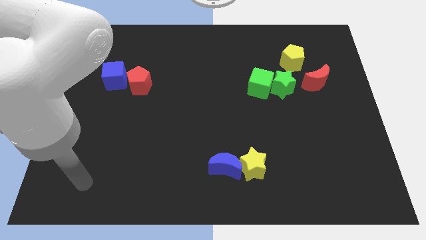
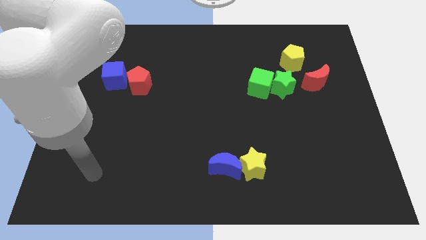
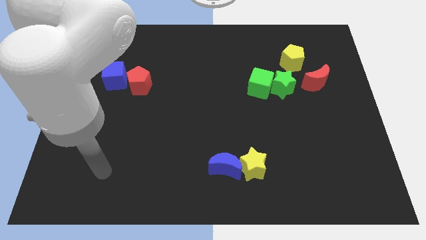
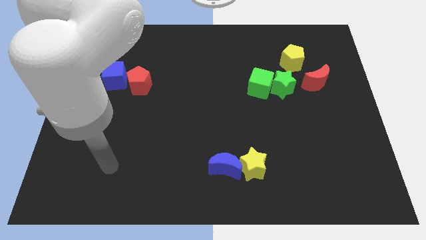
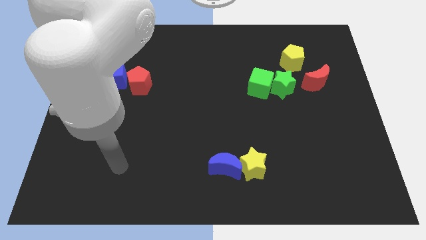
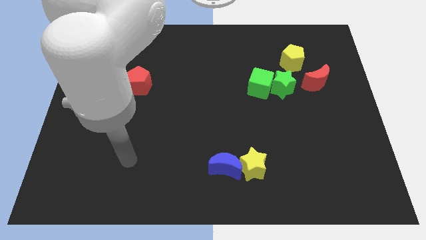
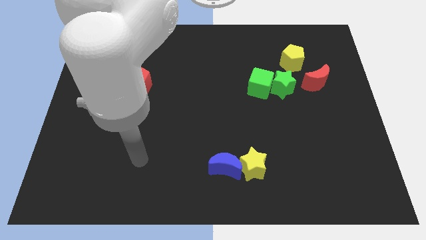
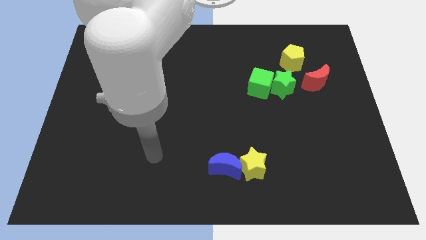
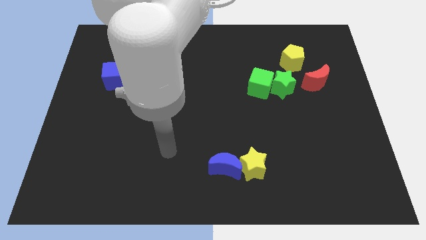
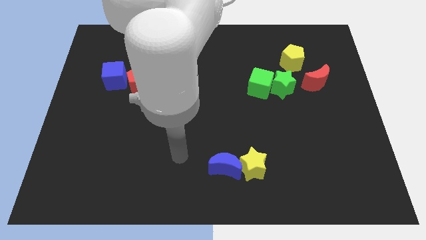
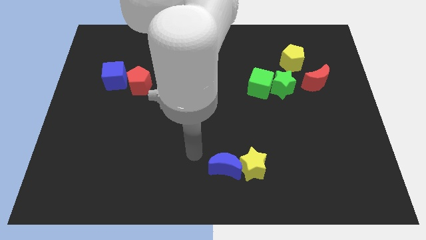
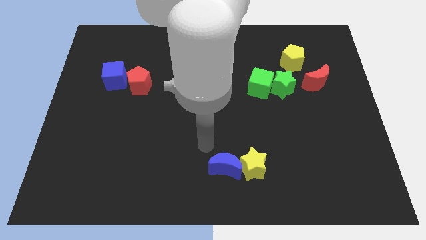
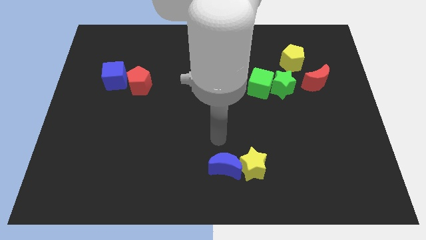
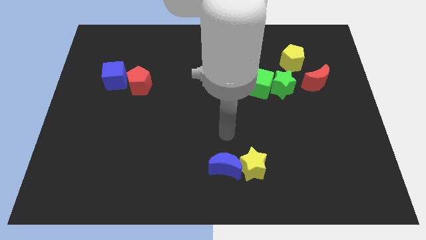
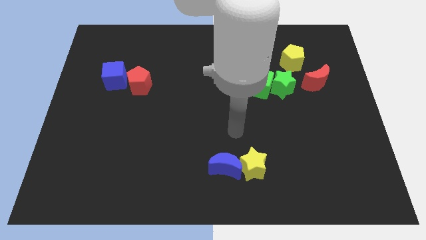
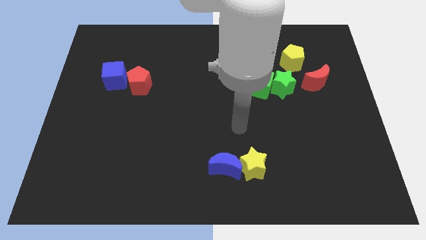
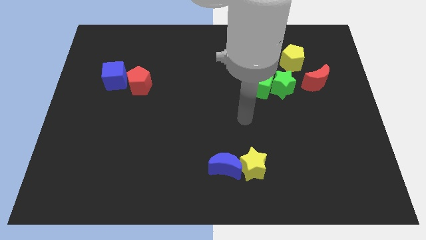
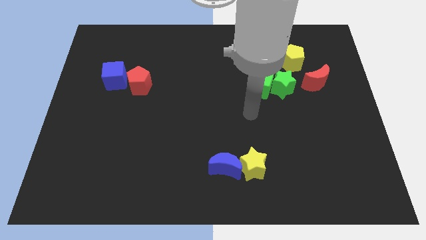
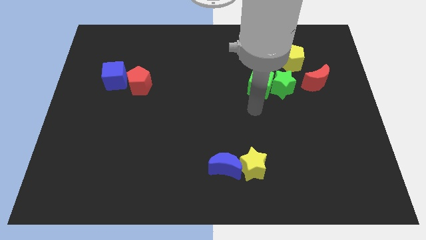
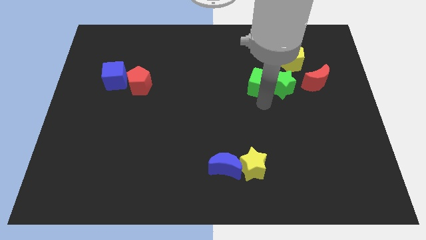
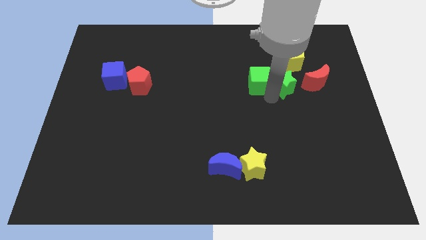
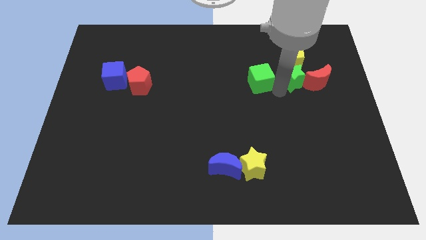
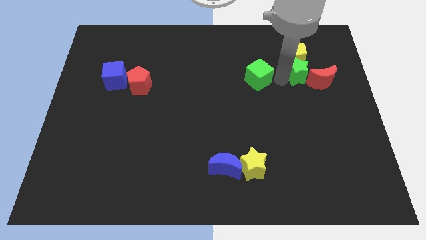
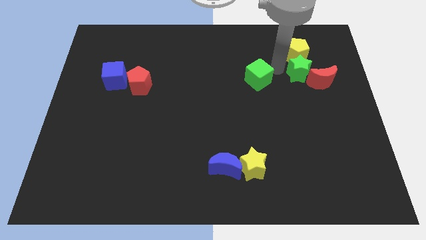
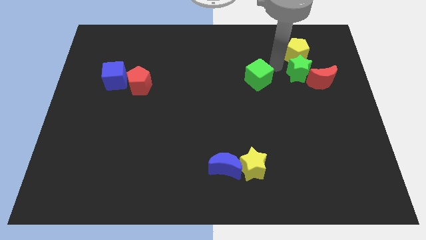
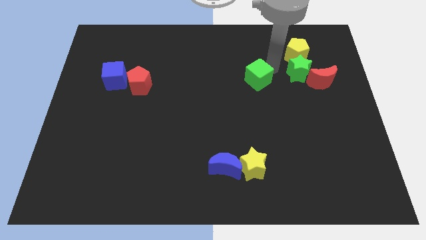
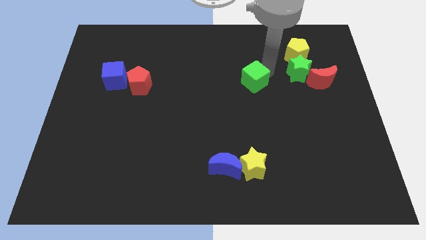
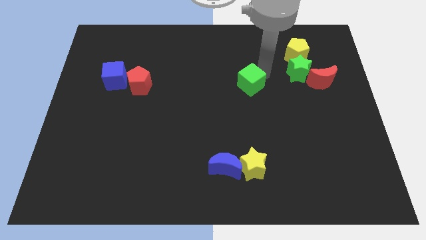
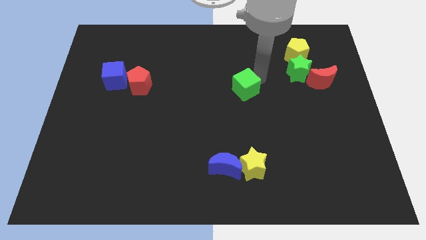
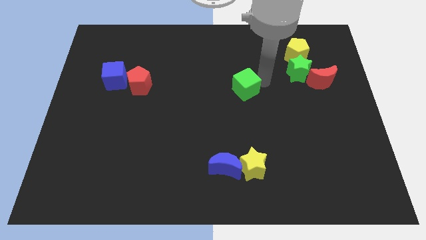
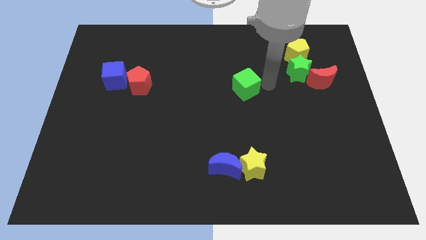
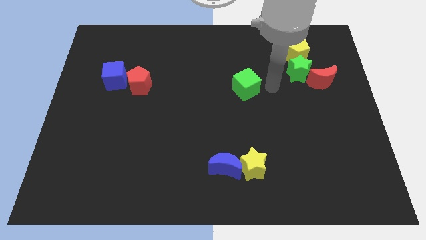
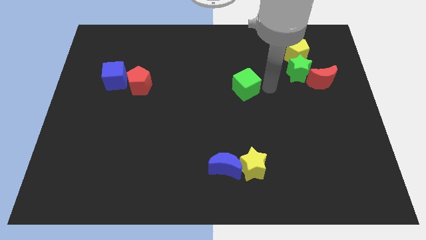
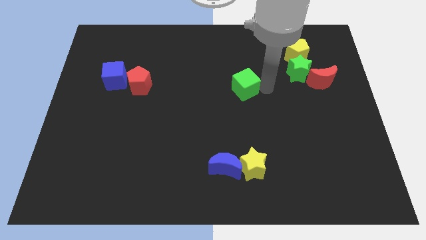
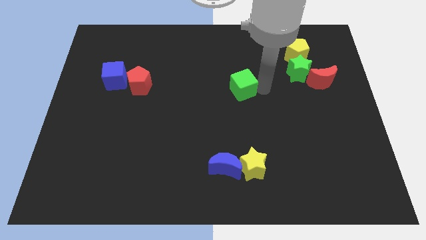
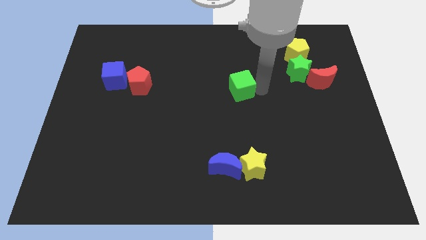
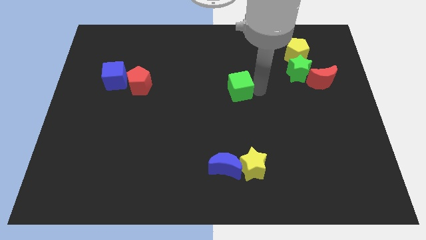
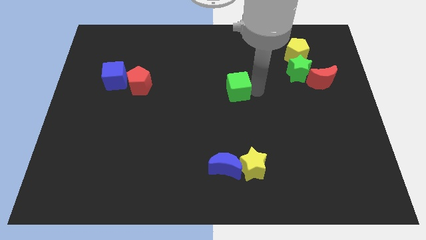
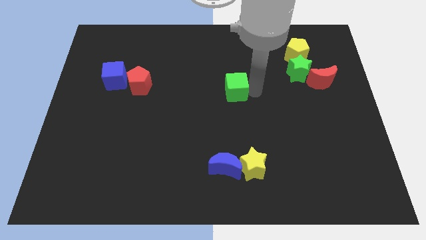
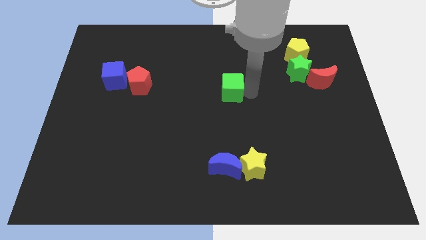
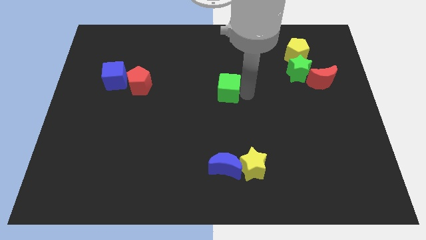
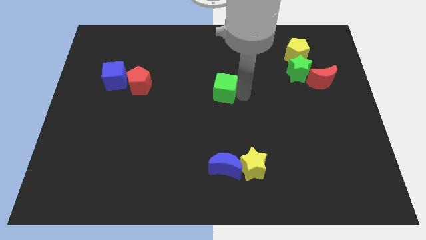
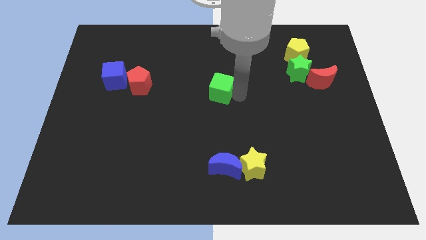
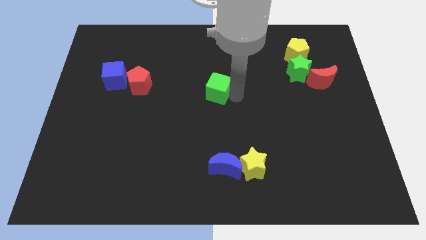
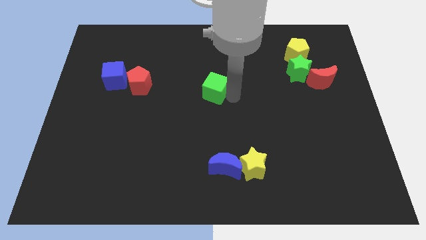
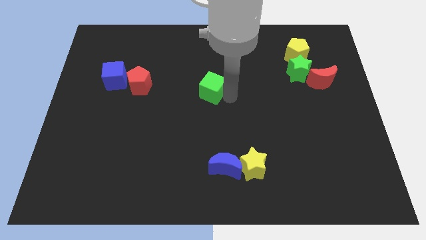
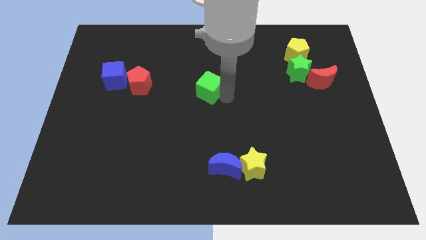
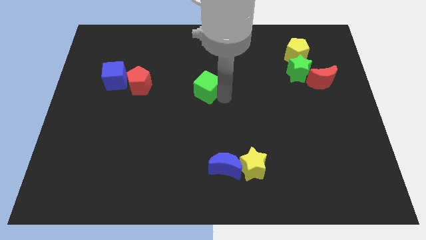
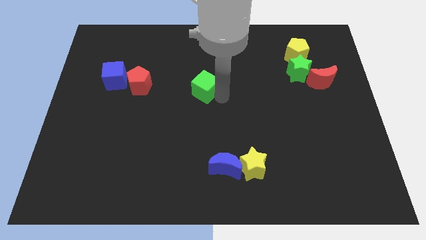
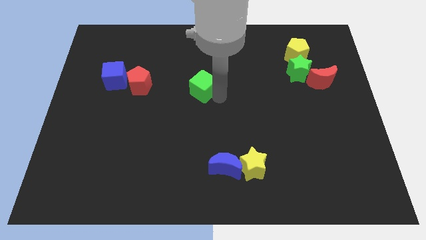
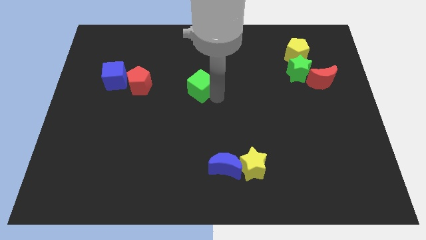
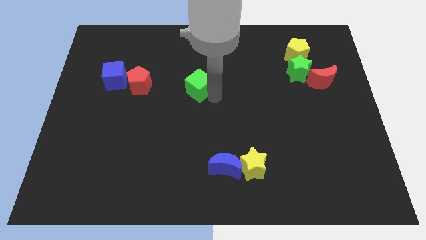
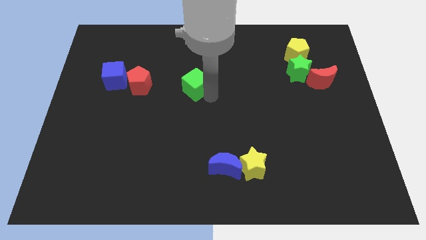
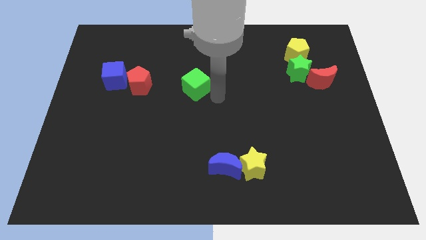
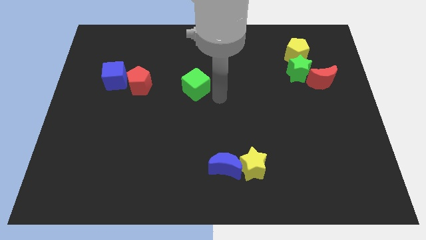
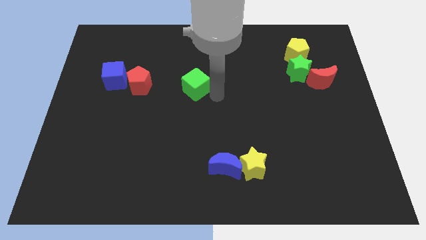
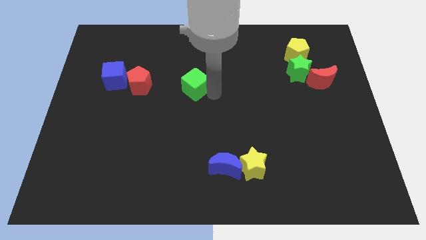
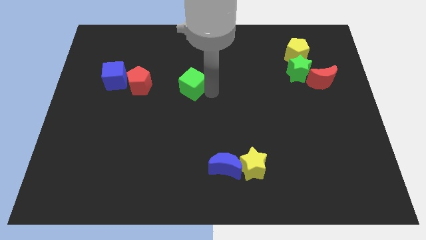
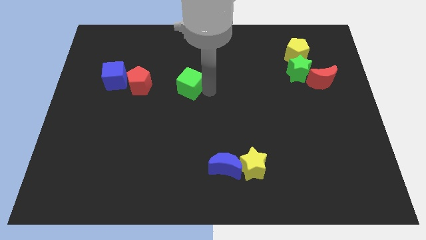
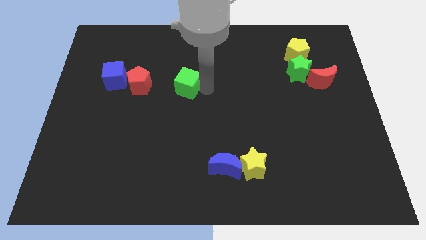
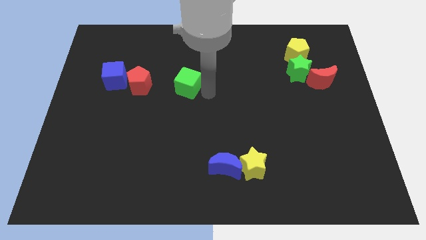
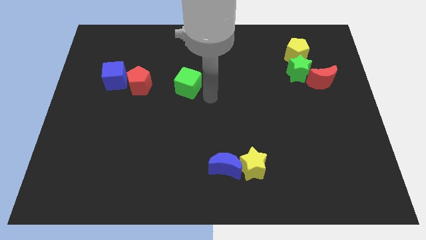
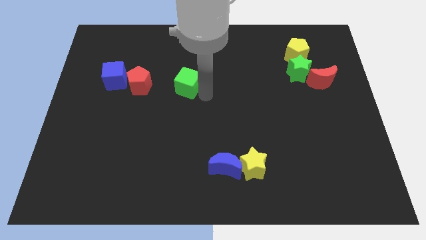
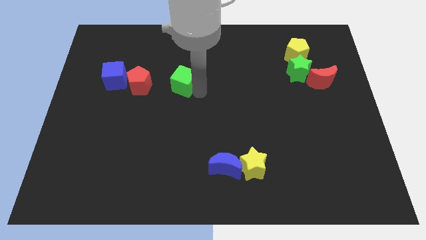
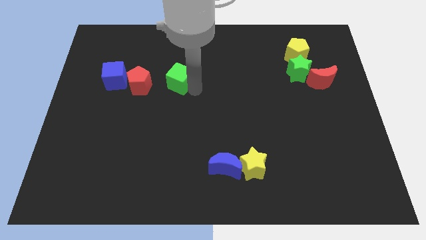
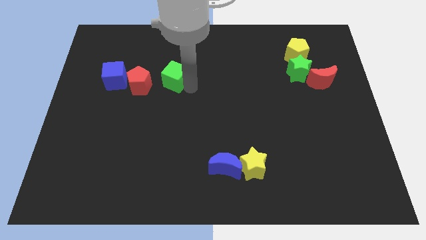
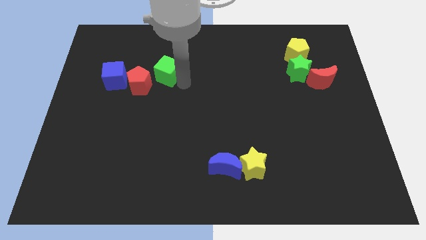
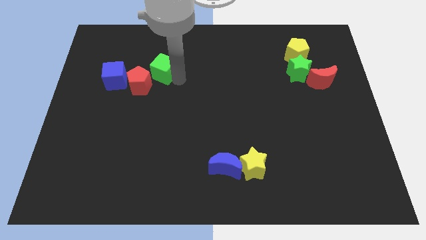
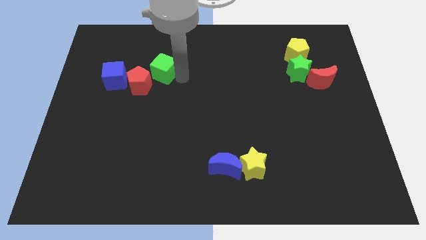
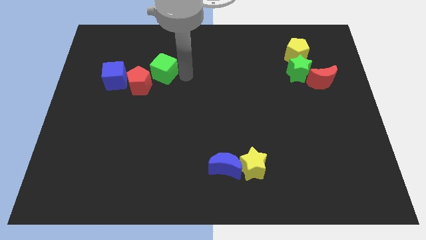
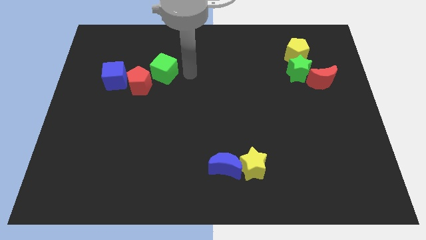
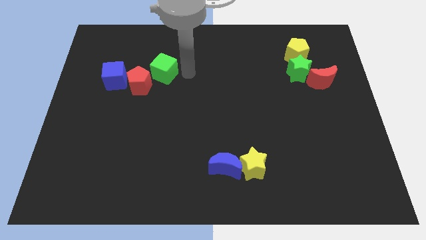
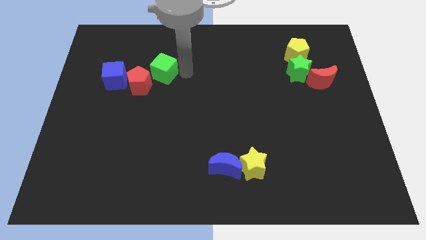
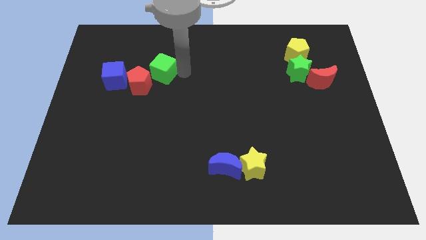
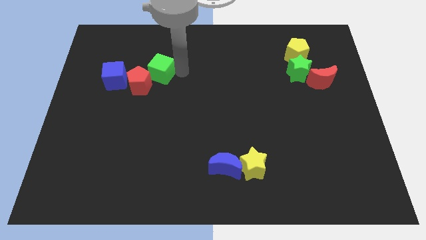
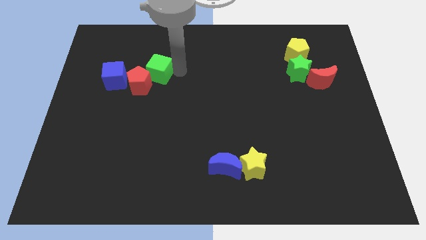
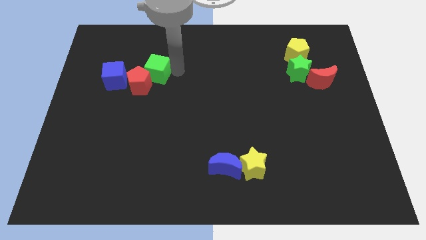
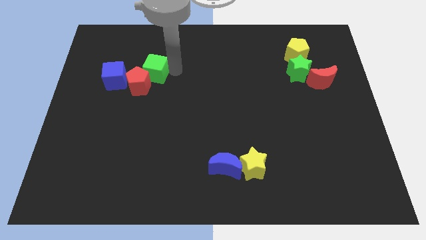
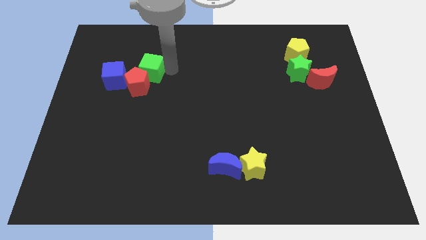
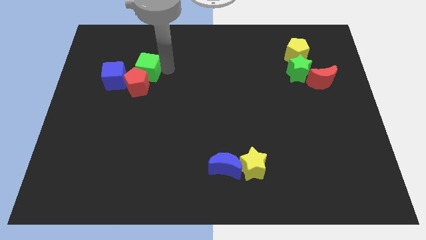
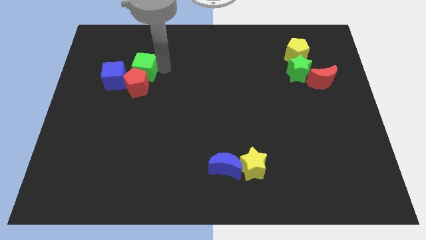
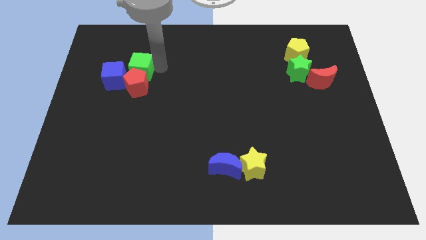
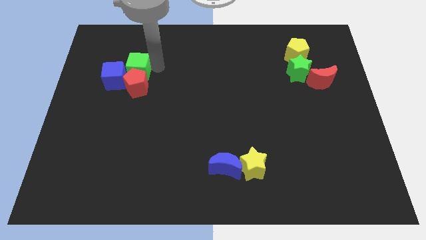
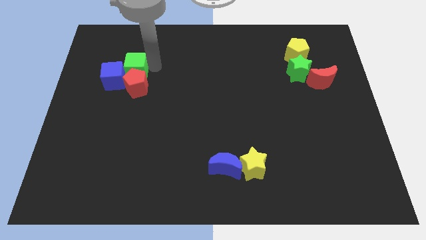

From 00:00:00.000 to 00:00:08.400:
slide the green cube next to the blue cube
